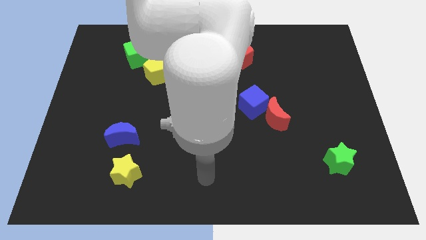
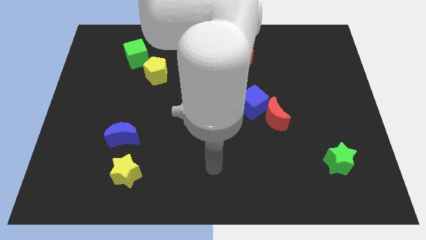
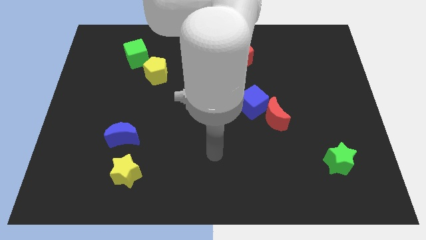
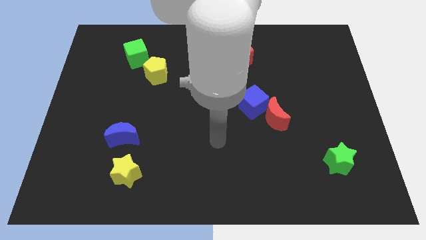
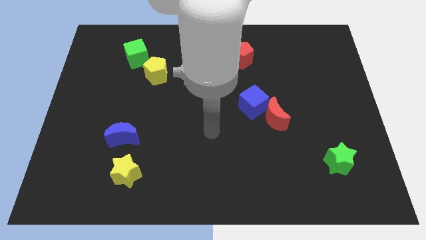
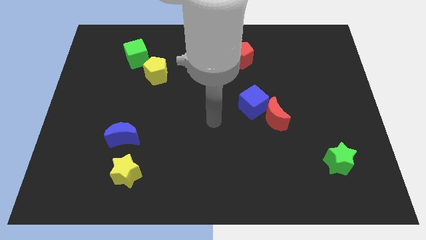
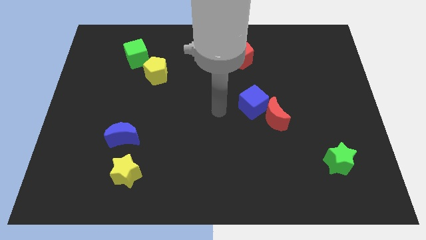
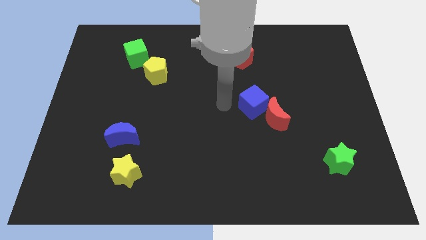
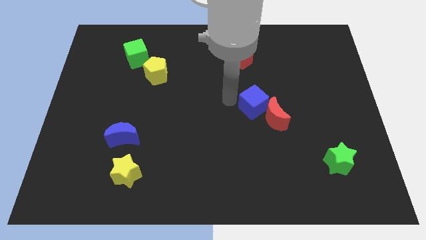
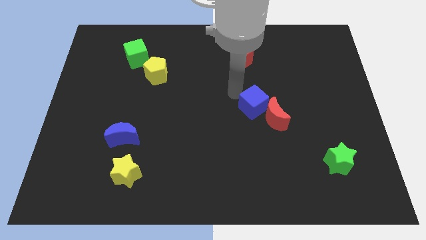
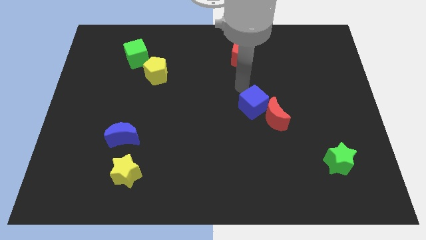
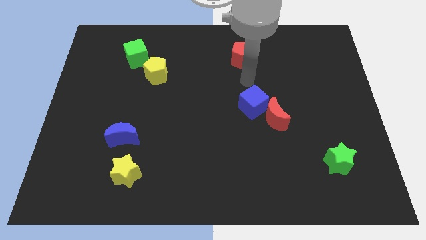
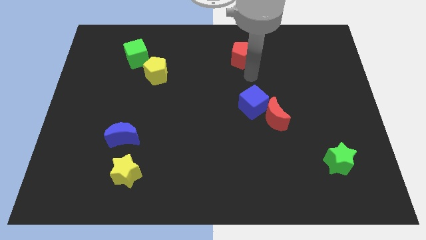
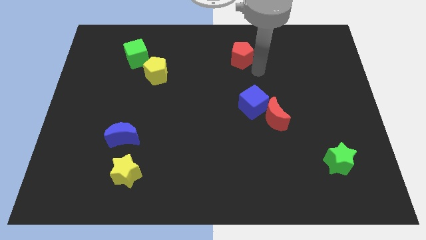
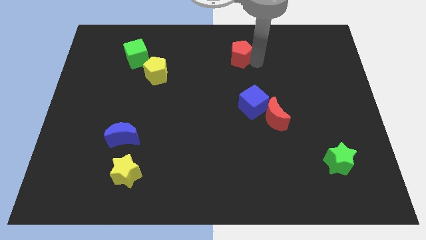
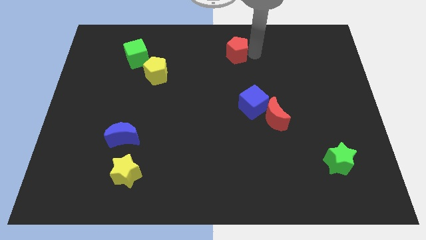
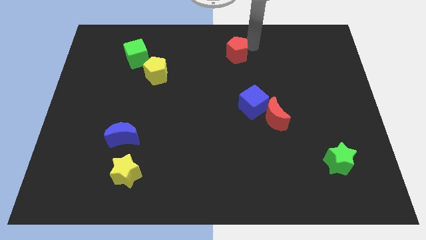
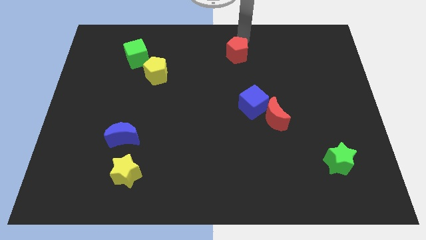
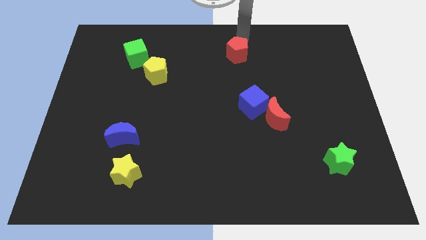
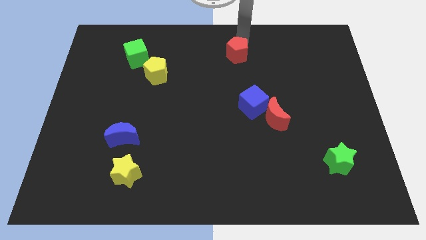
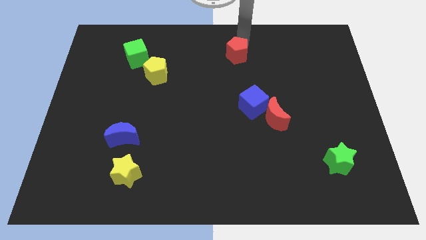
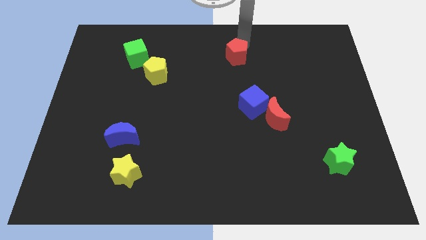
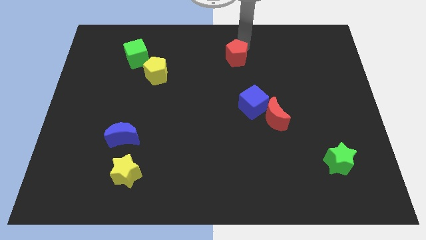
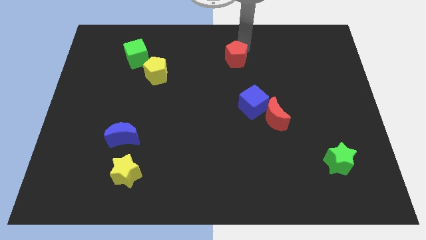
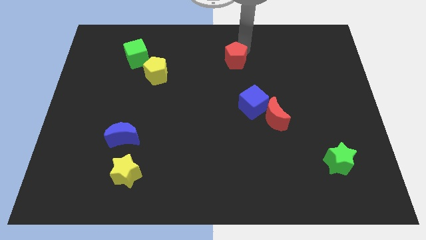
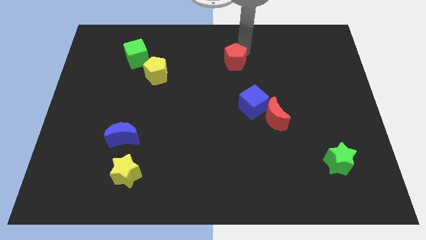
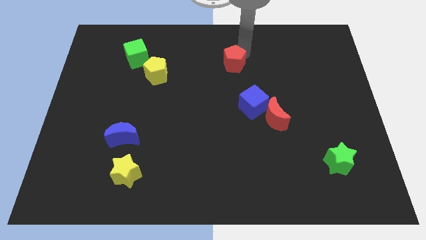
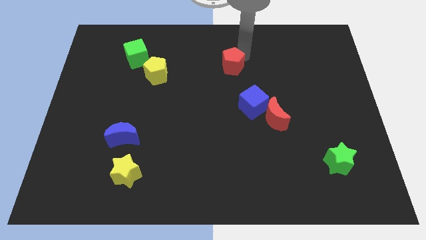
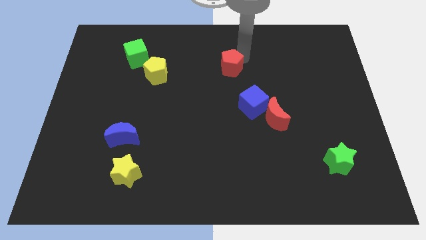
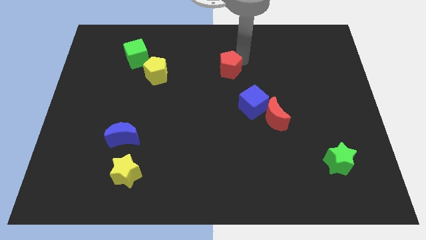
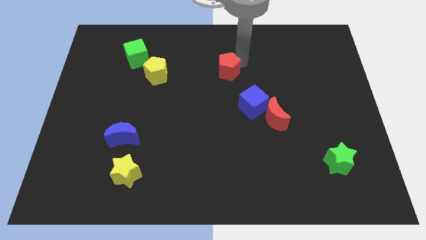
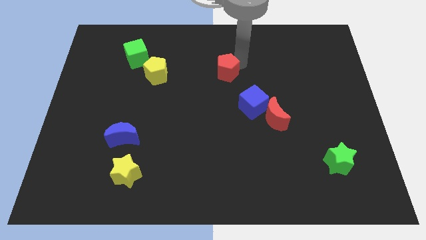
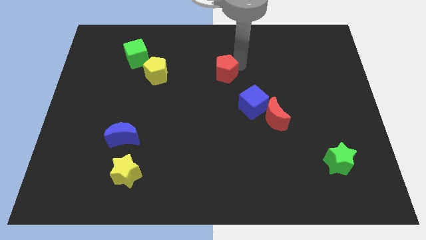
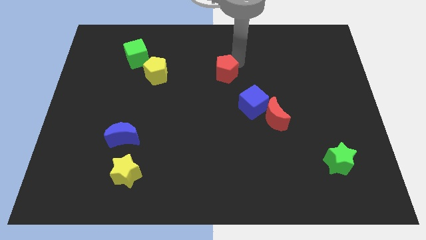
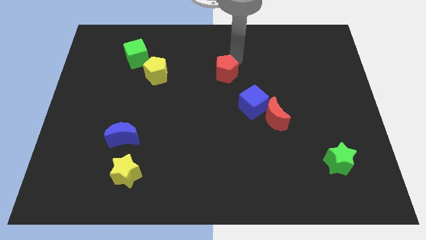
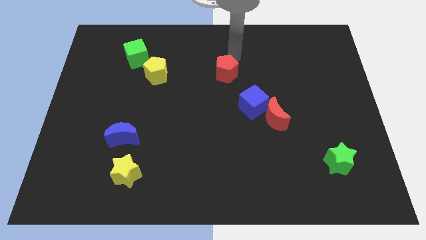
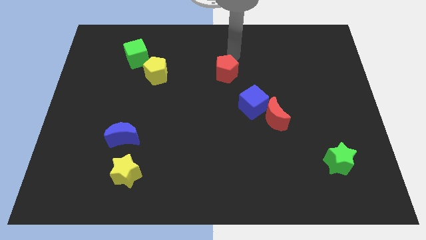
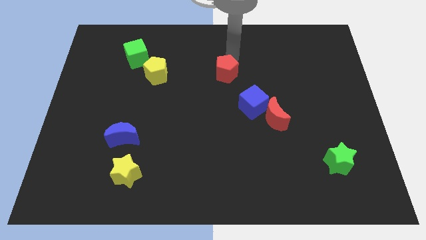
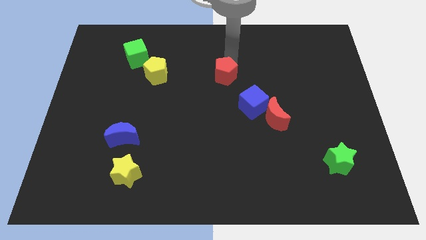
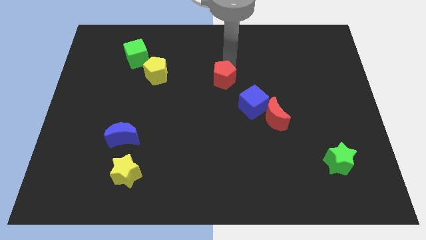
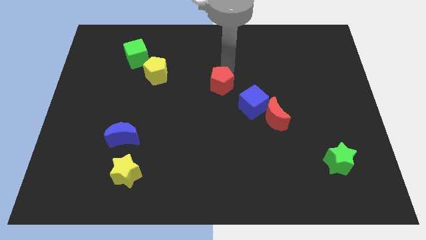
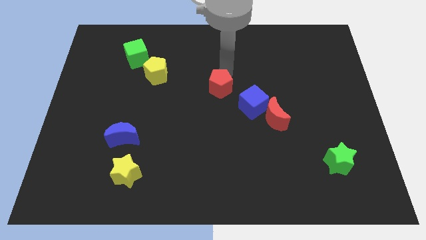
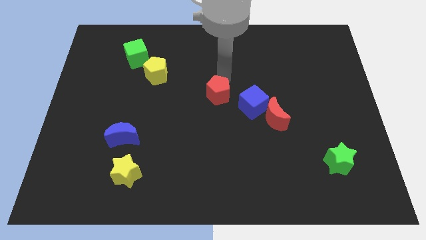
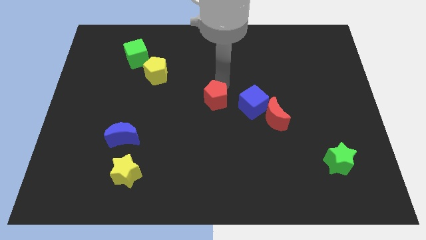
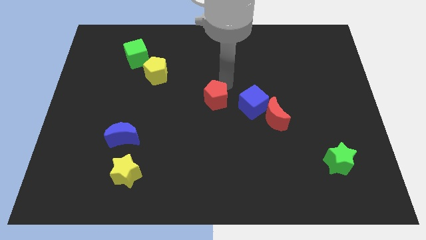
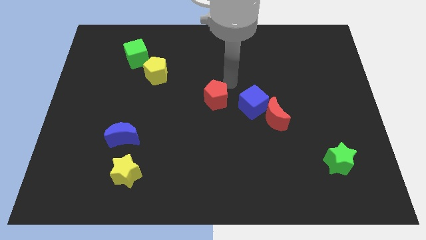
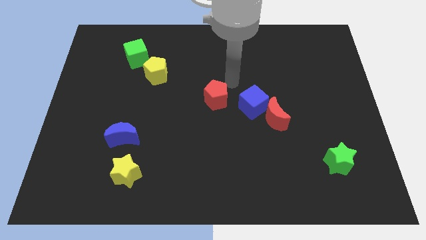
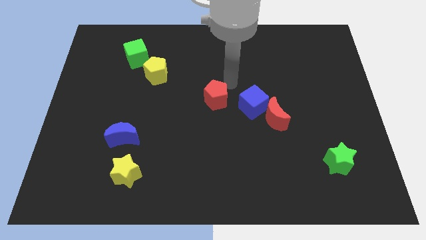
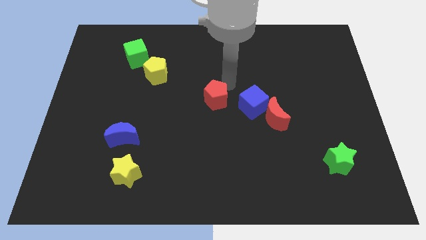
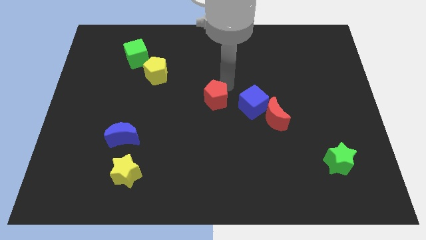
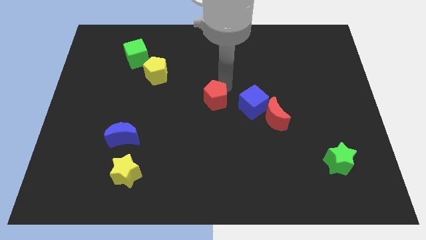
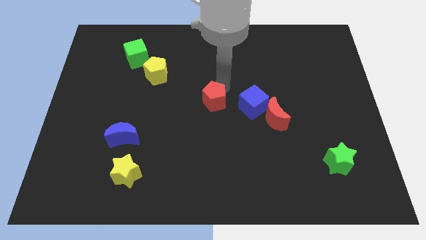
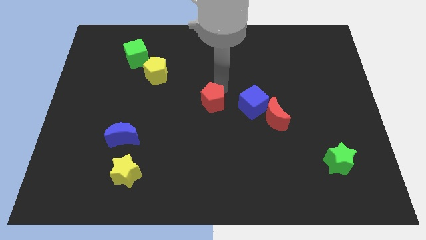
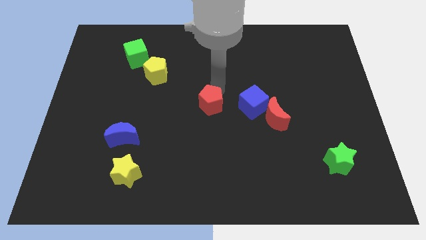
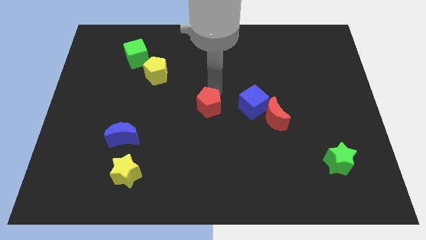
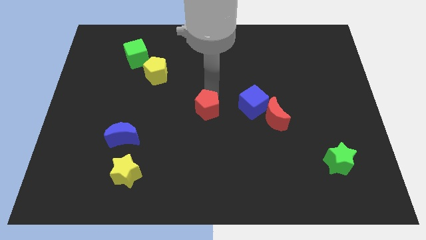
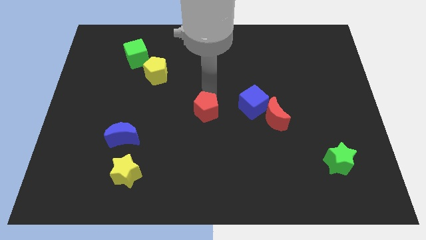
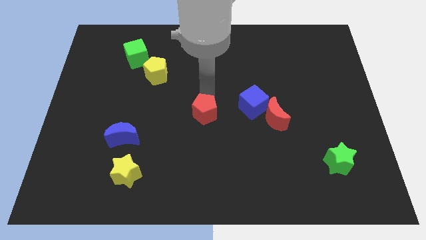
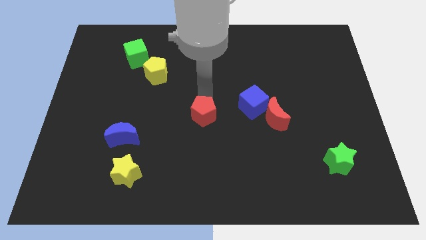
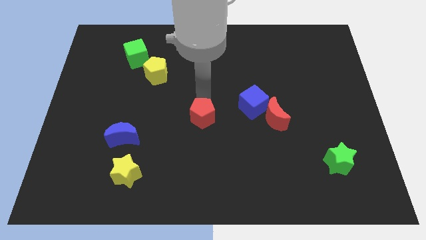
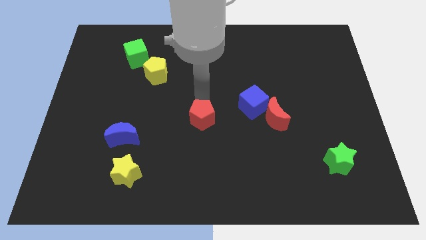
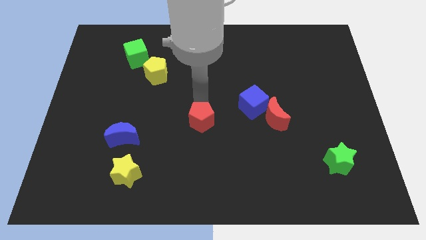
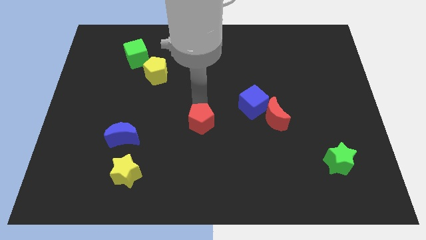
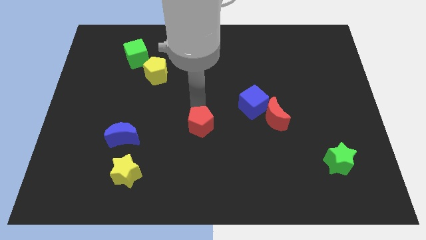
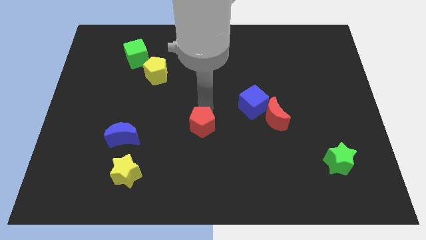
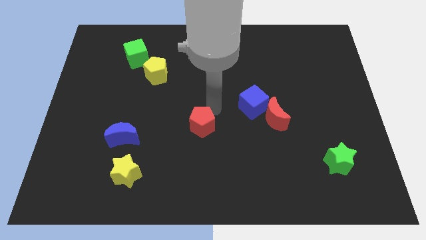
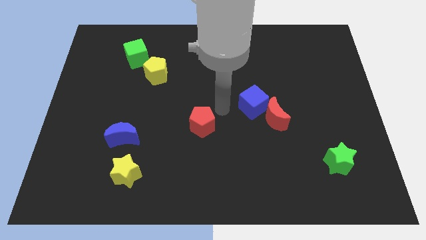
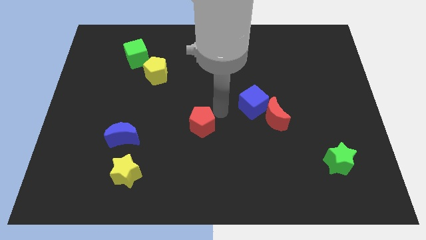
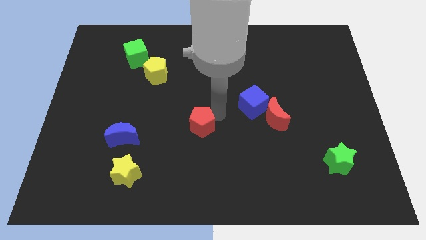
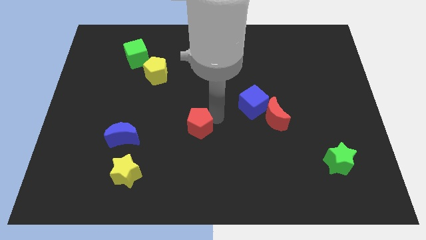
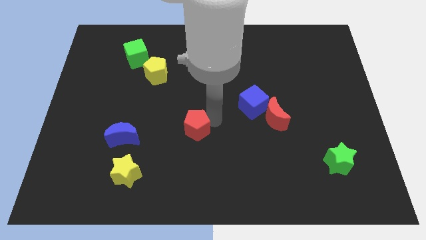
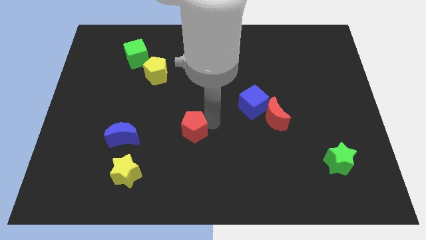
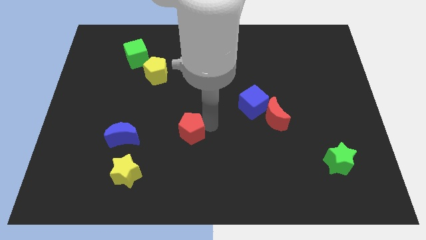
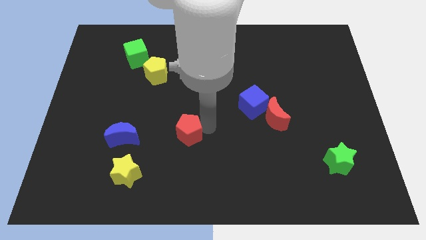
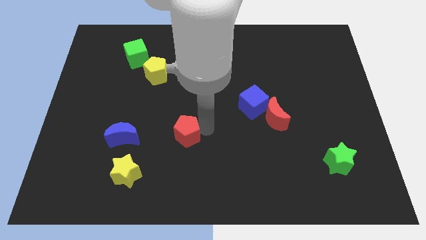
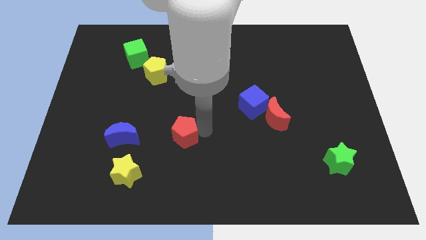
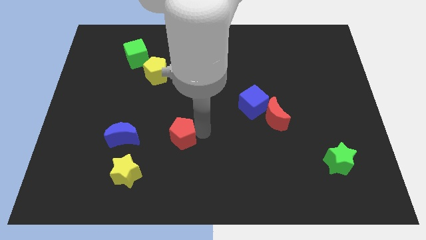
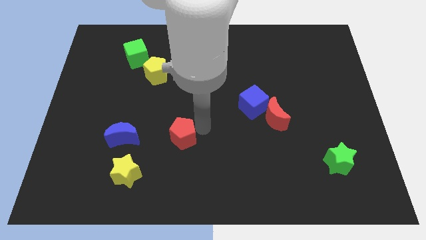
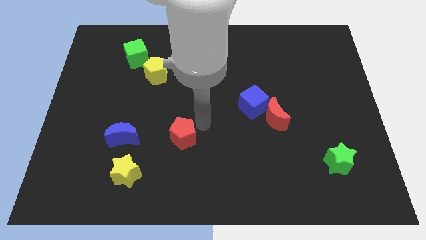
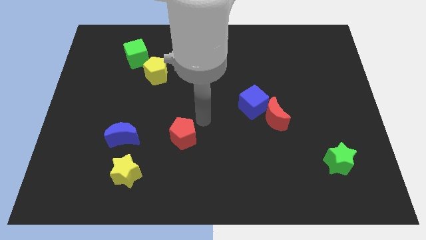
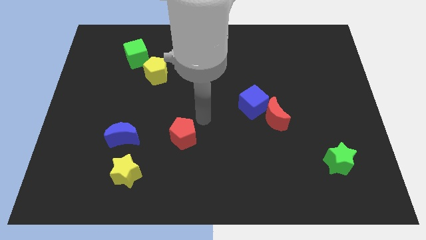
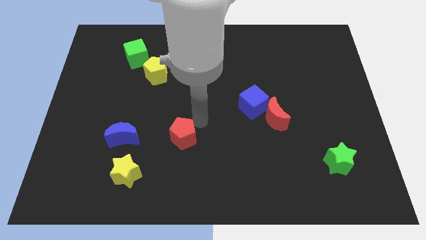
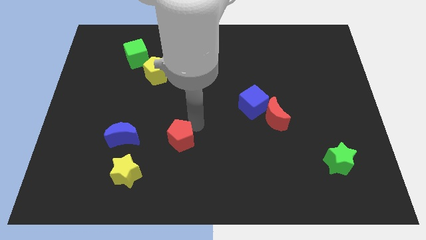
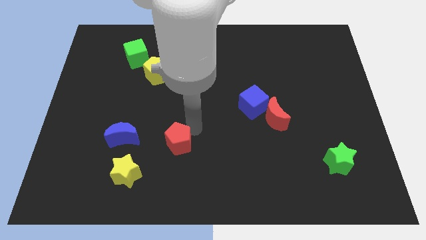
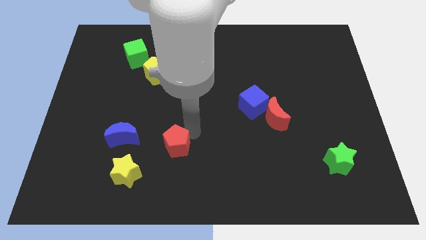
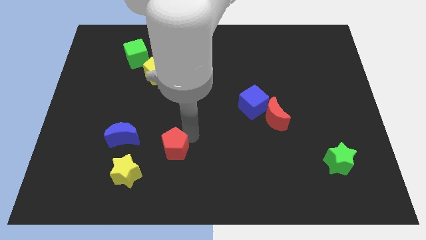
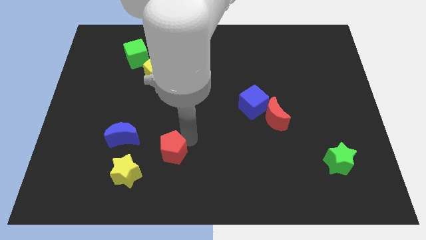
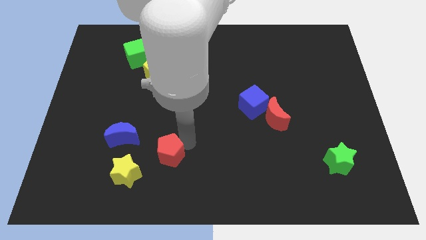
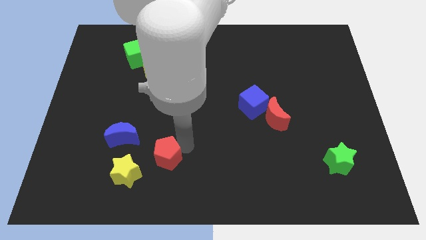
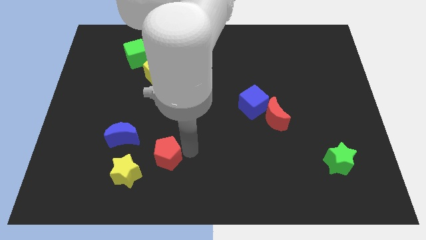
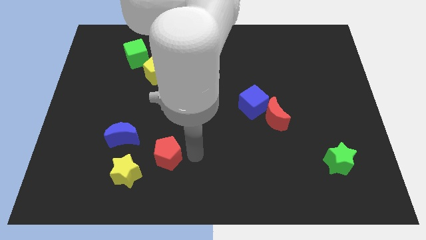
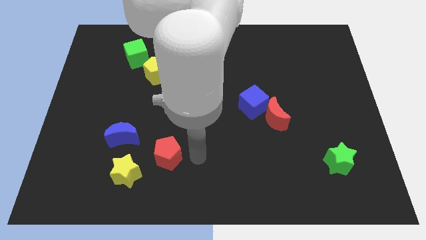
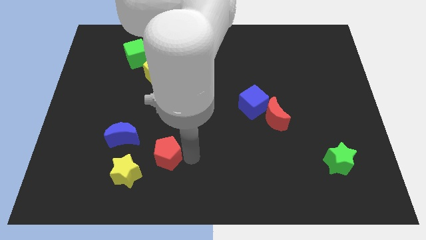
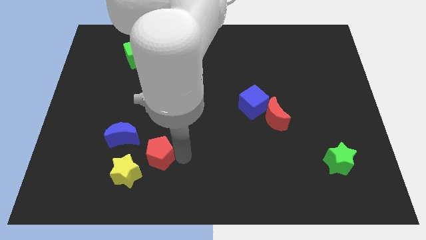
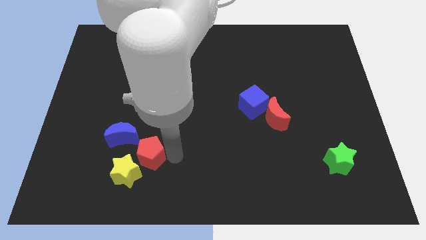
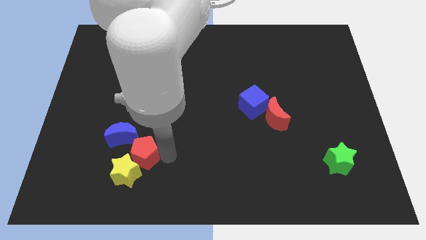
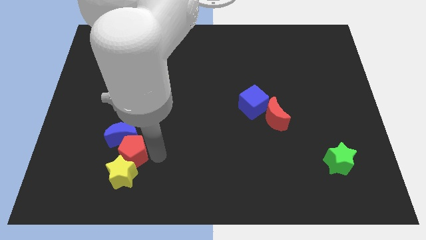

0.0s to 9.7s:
move the red pentagon to the top left side of the yellow star
